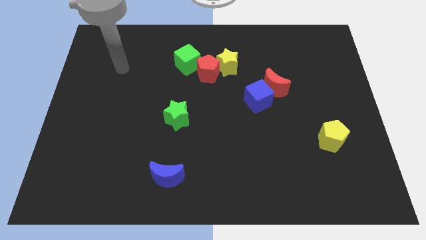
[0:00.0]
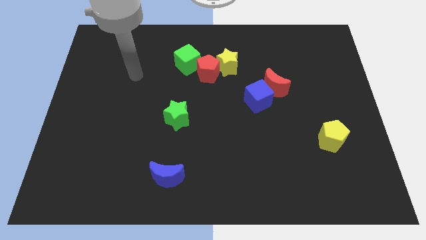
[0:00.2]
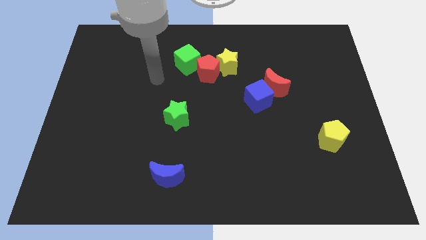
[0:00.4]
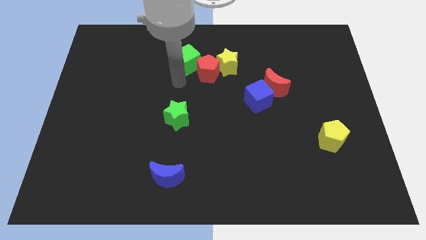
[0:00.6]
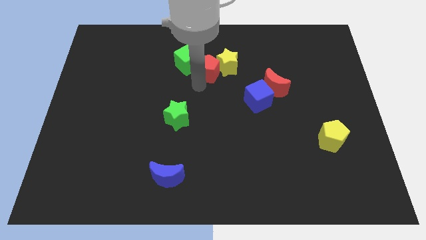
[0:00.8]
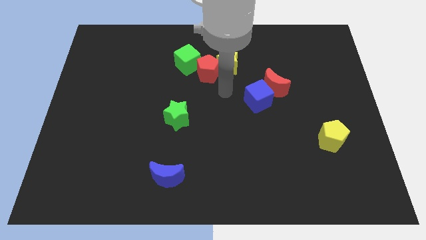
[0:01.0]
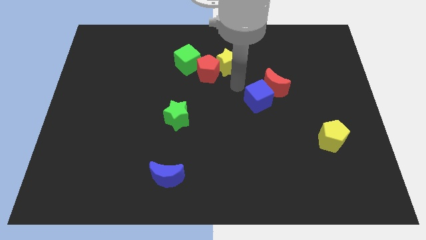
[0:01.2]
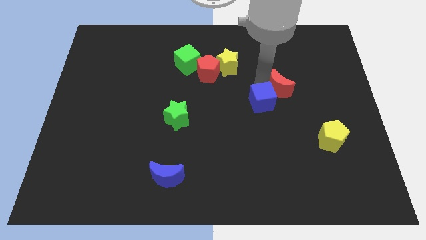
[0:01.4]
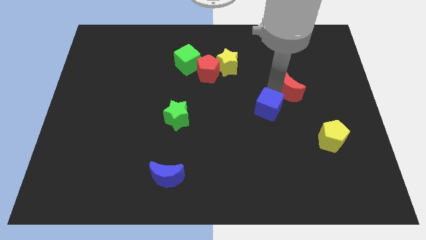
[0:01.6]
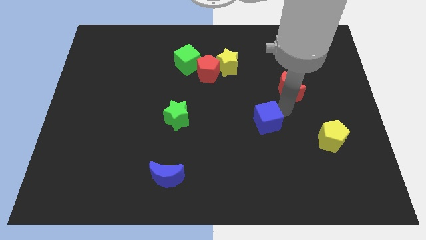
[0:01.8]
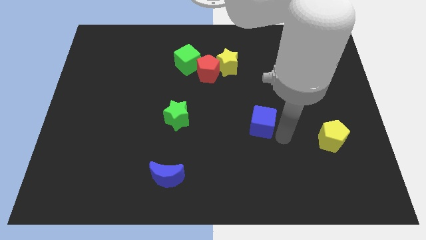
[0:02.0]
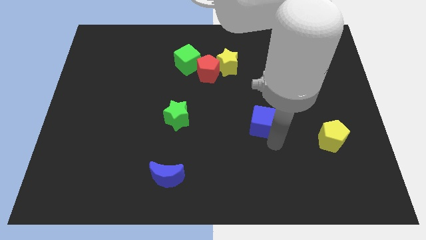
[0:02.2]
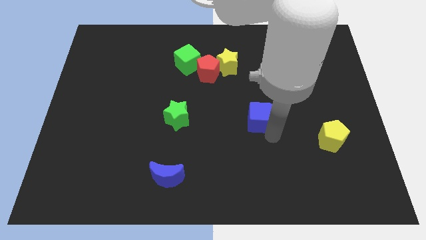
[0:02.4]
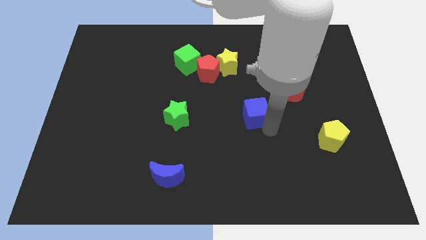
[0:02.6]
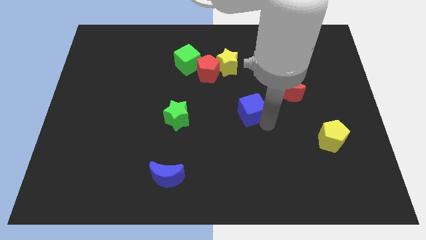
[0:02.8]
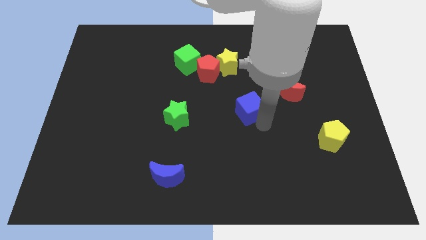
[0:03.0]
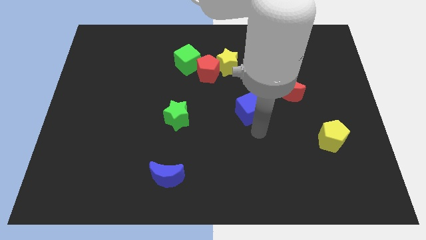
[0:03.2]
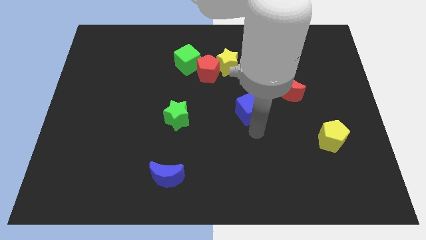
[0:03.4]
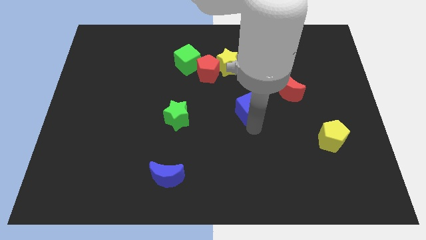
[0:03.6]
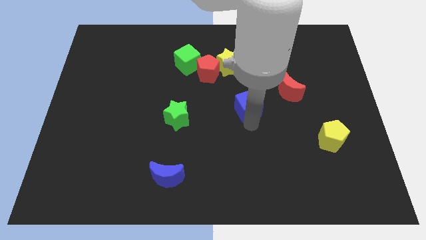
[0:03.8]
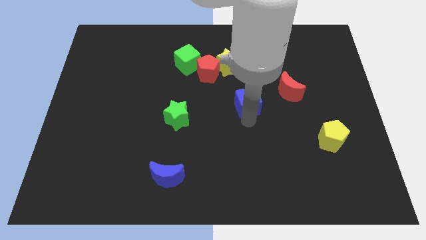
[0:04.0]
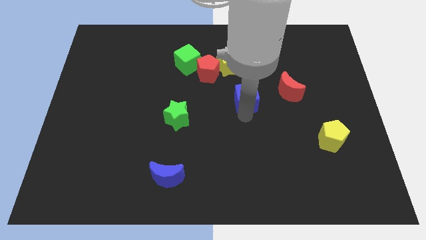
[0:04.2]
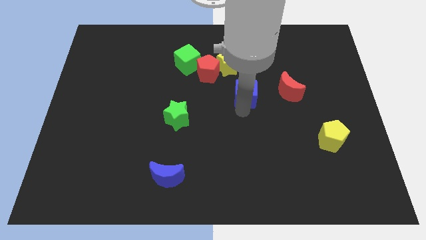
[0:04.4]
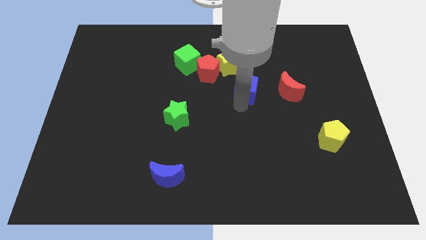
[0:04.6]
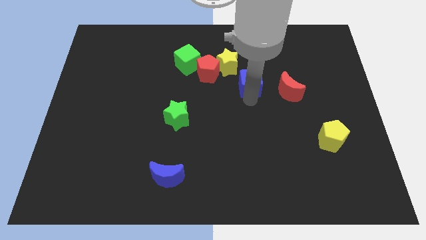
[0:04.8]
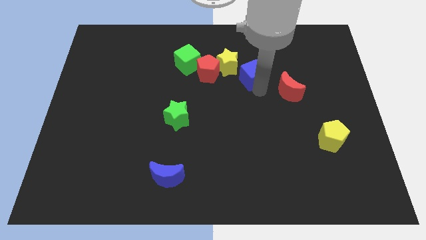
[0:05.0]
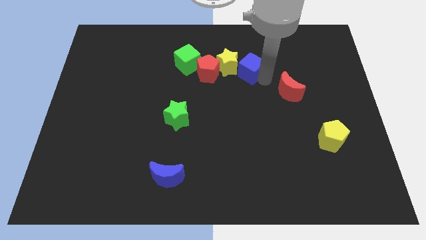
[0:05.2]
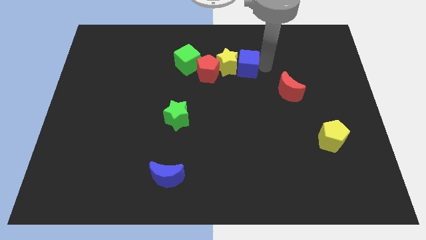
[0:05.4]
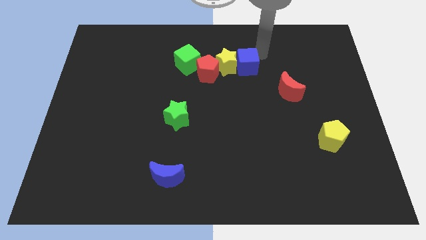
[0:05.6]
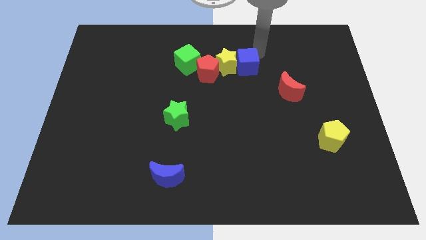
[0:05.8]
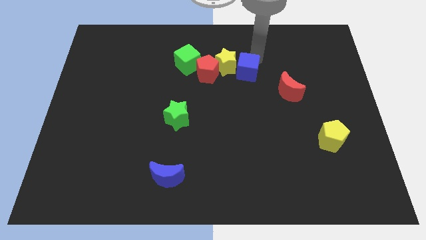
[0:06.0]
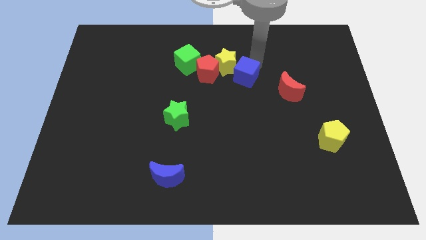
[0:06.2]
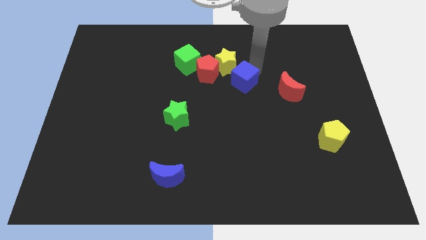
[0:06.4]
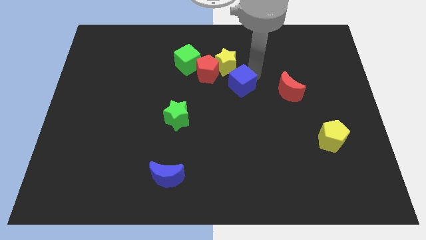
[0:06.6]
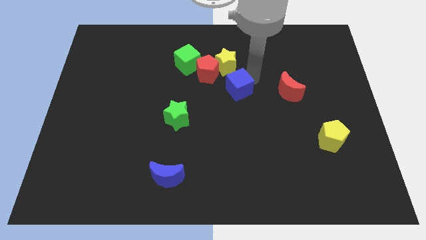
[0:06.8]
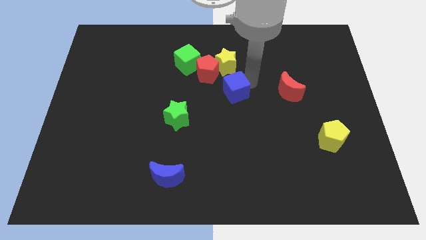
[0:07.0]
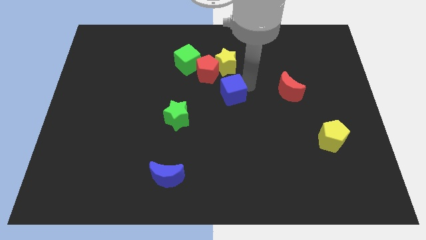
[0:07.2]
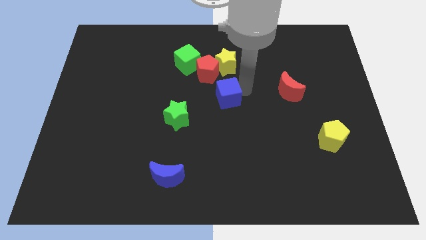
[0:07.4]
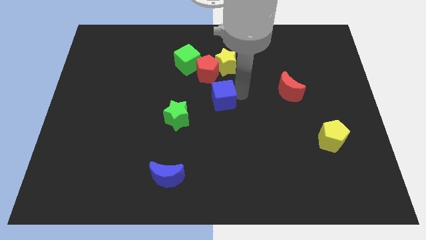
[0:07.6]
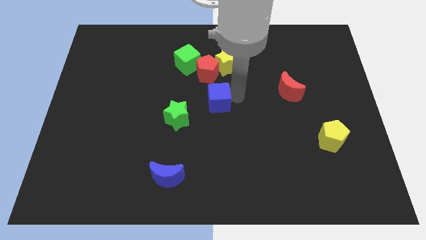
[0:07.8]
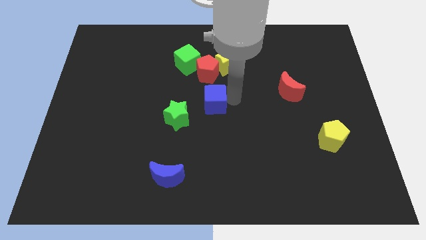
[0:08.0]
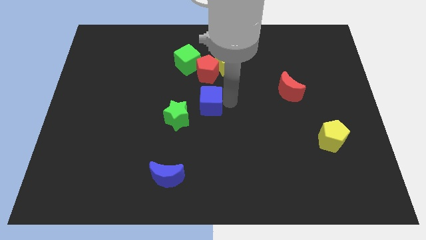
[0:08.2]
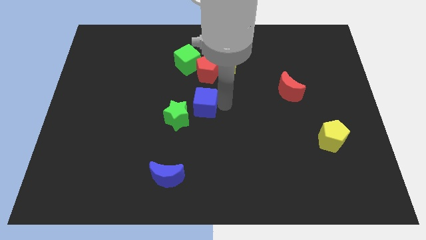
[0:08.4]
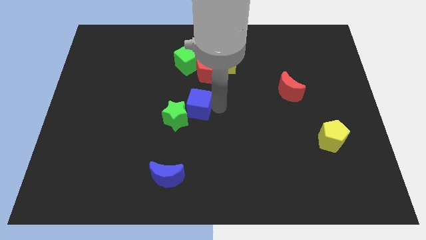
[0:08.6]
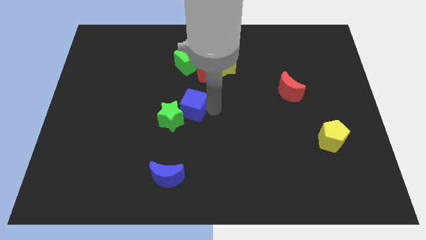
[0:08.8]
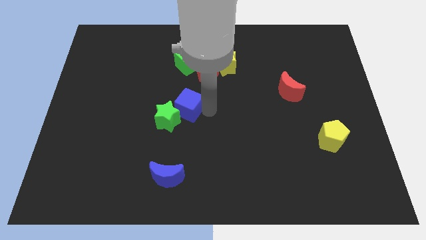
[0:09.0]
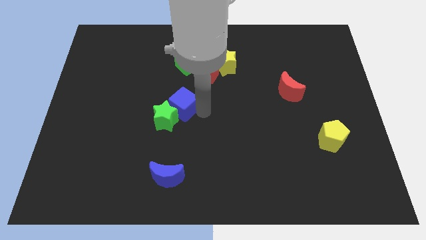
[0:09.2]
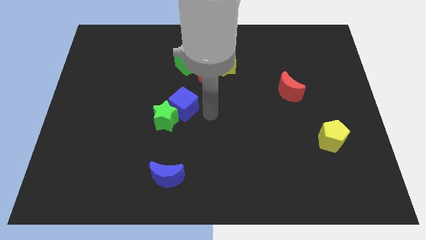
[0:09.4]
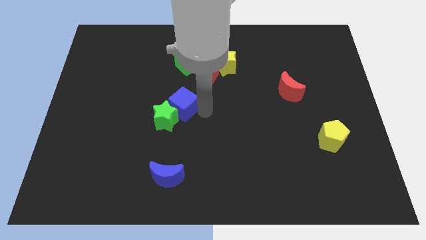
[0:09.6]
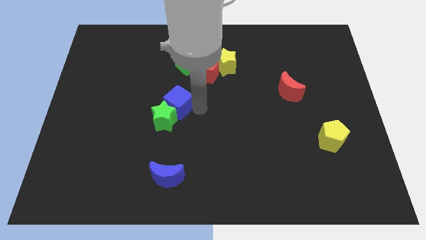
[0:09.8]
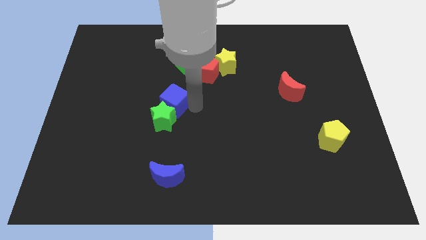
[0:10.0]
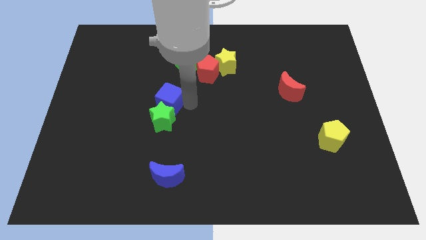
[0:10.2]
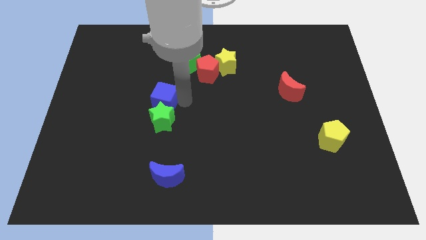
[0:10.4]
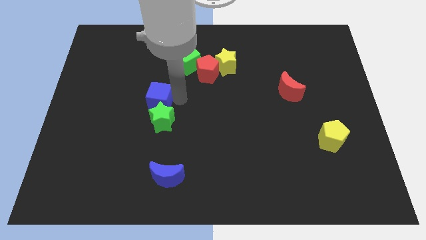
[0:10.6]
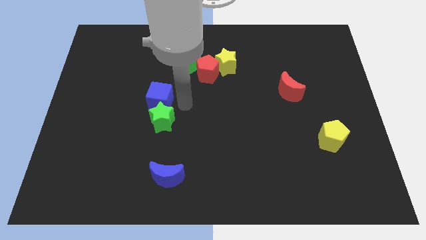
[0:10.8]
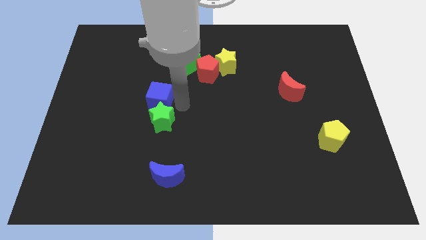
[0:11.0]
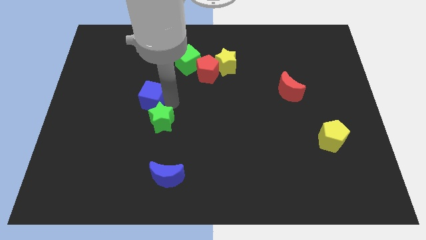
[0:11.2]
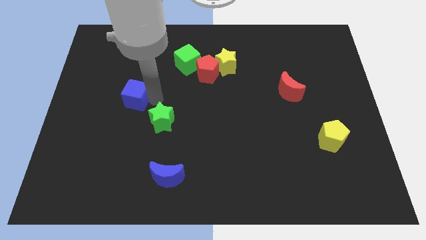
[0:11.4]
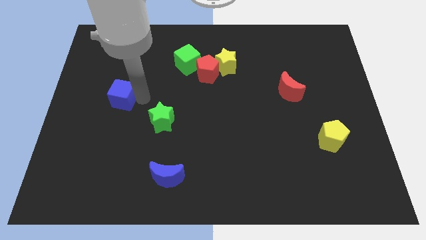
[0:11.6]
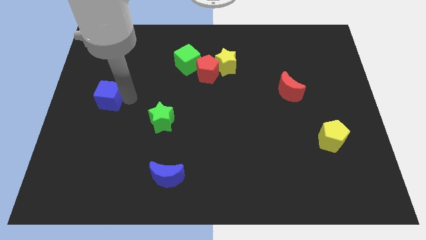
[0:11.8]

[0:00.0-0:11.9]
put the blue cube to the left side

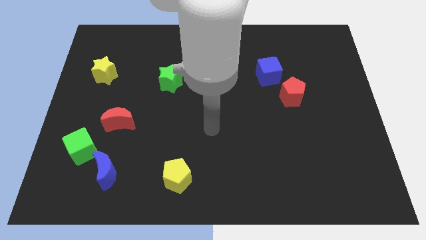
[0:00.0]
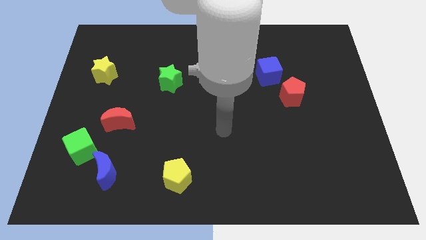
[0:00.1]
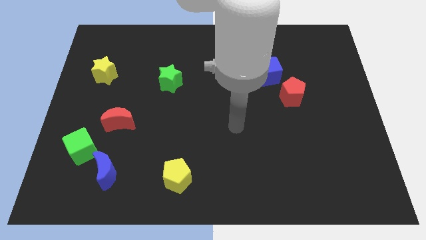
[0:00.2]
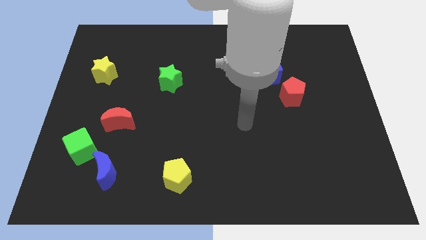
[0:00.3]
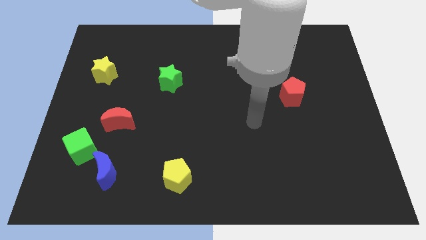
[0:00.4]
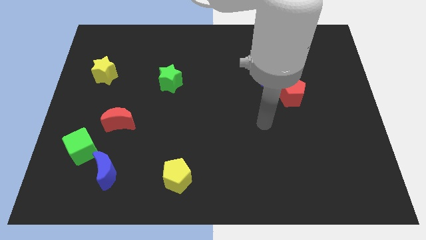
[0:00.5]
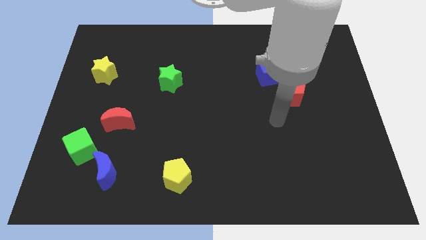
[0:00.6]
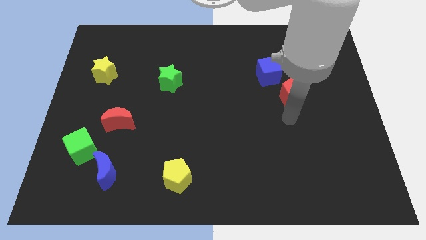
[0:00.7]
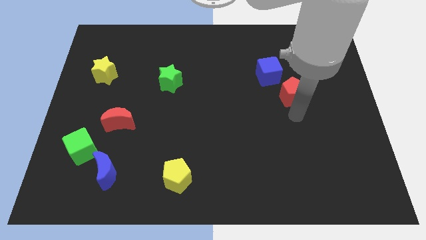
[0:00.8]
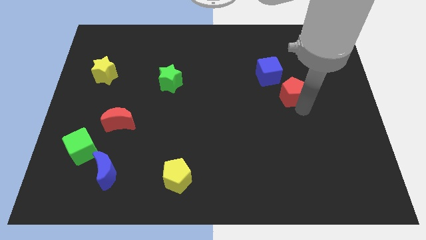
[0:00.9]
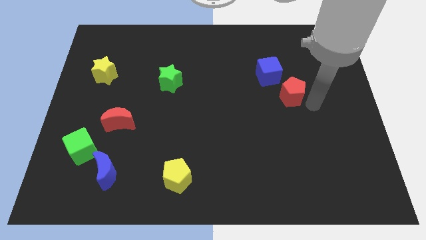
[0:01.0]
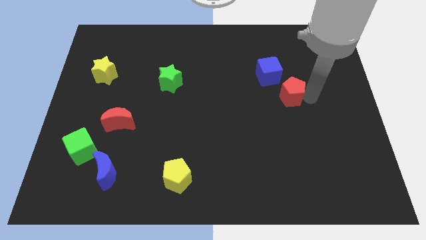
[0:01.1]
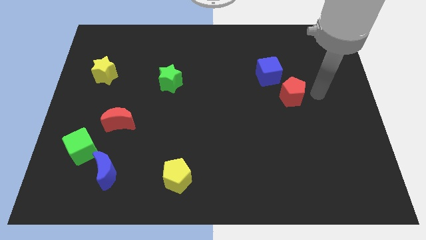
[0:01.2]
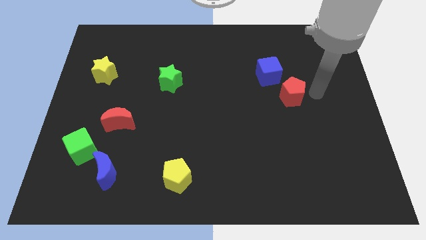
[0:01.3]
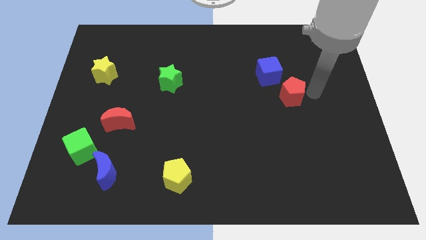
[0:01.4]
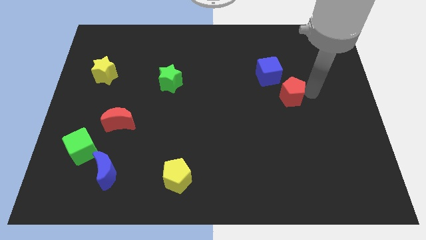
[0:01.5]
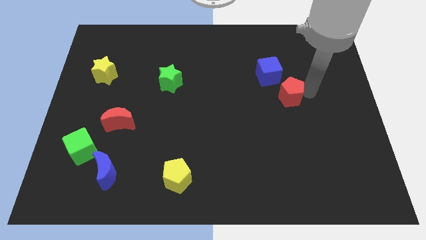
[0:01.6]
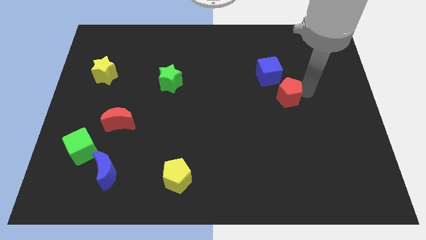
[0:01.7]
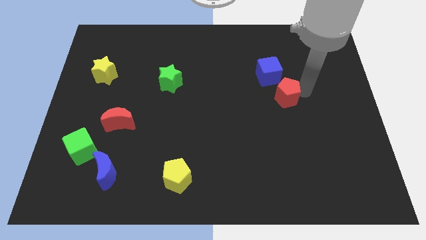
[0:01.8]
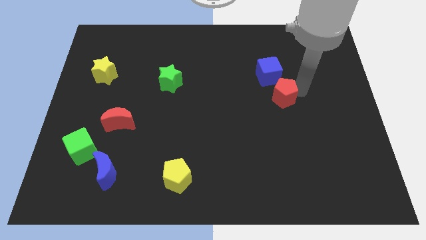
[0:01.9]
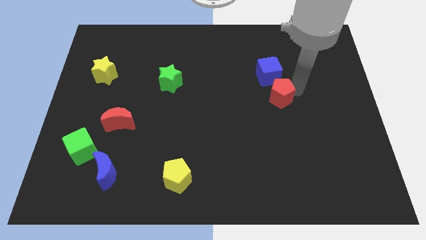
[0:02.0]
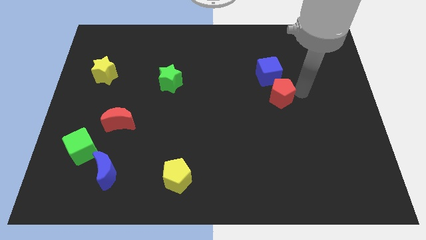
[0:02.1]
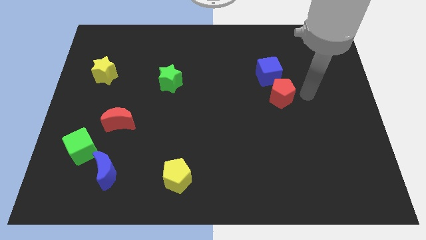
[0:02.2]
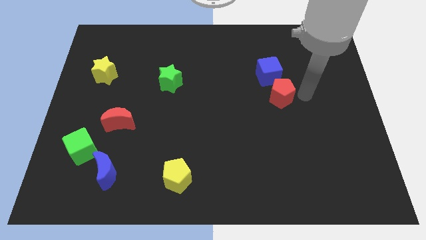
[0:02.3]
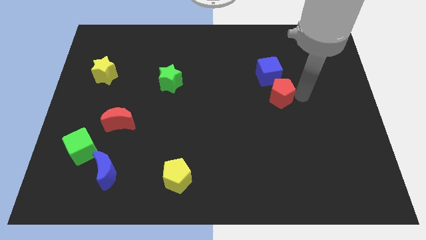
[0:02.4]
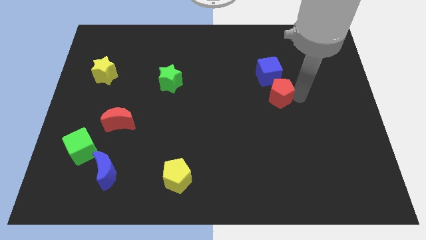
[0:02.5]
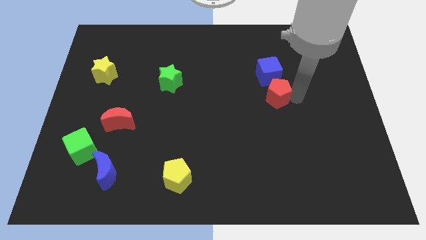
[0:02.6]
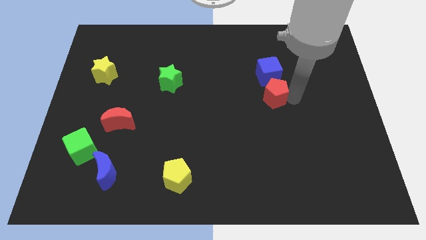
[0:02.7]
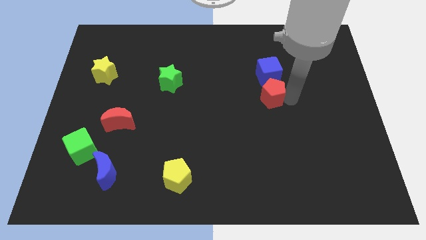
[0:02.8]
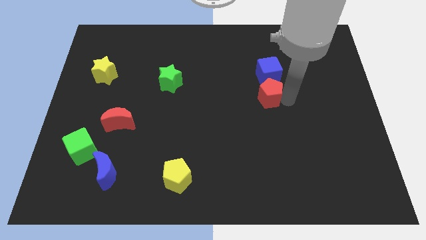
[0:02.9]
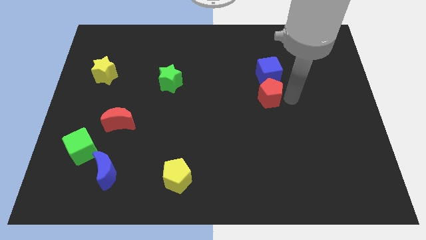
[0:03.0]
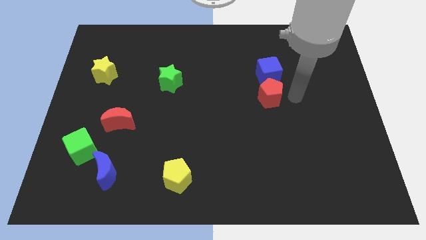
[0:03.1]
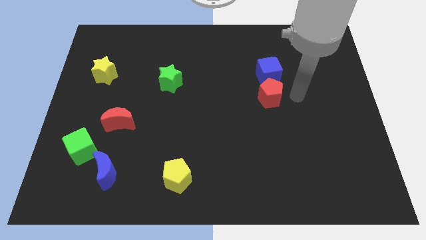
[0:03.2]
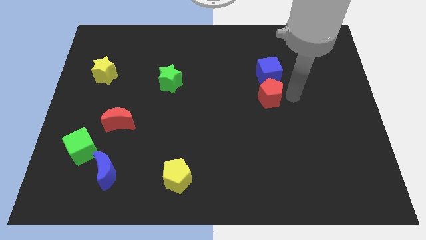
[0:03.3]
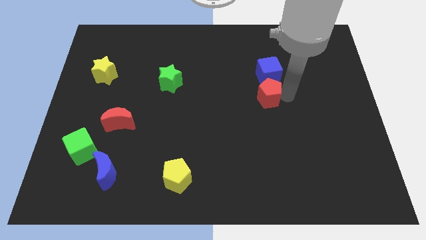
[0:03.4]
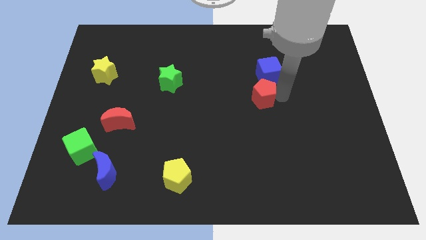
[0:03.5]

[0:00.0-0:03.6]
slide the red pentagon to the center of the board
